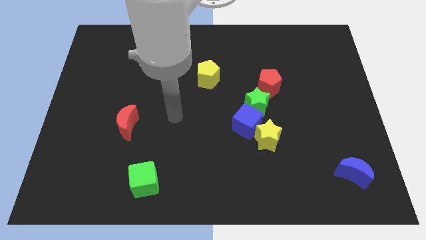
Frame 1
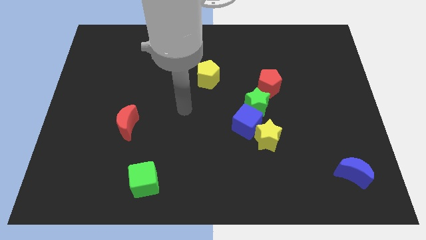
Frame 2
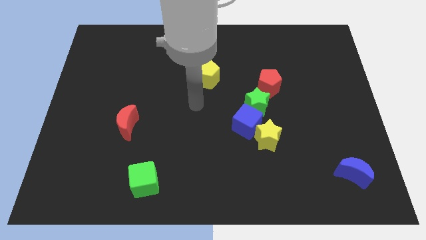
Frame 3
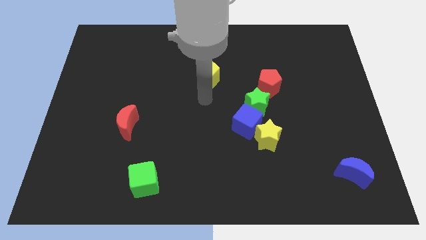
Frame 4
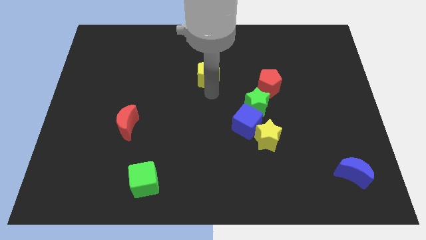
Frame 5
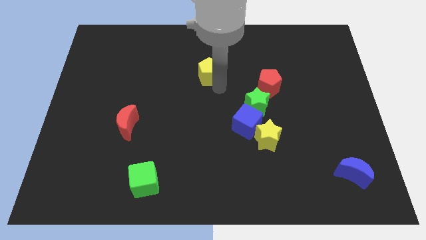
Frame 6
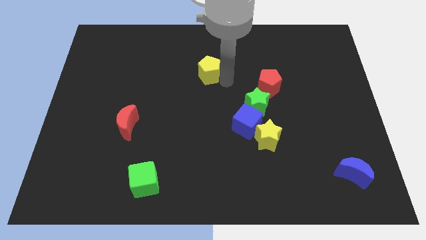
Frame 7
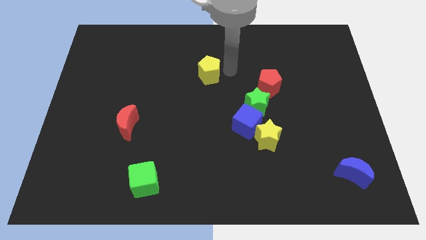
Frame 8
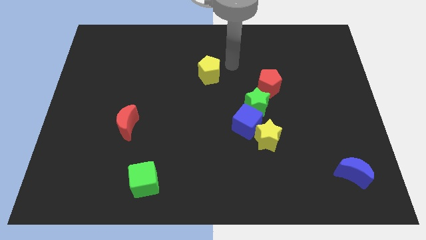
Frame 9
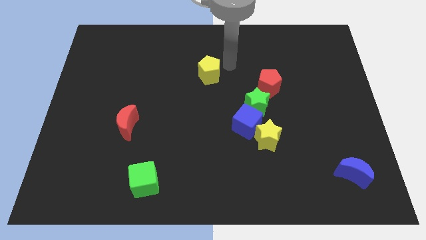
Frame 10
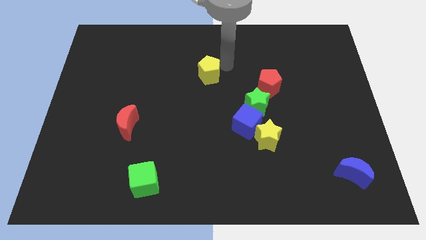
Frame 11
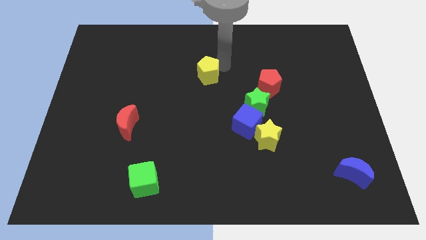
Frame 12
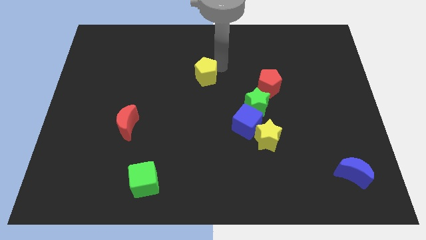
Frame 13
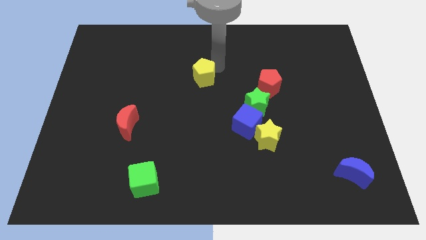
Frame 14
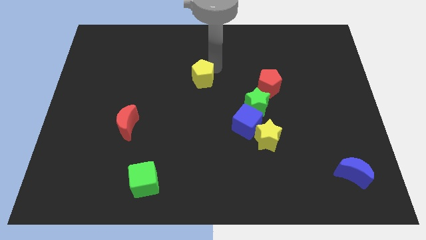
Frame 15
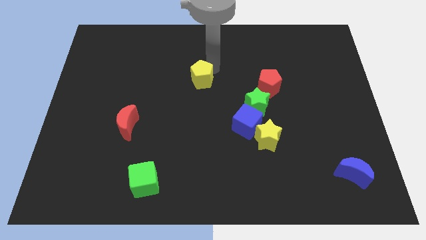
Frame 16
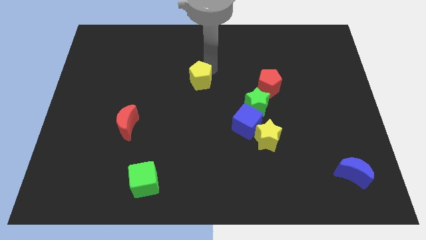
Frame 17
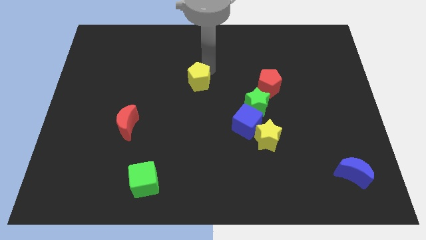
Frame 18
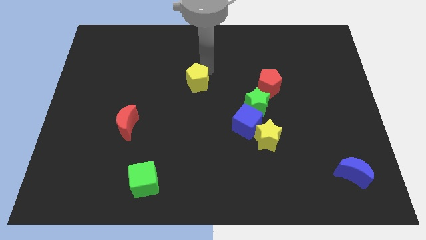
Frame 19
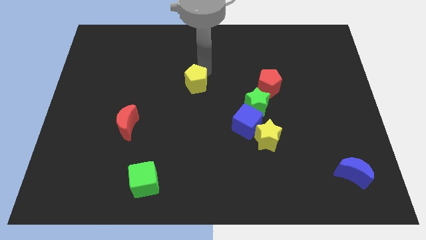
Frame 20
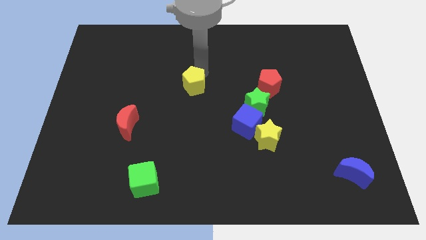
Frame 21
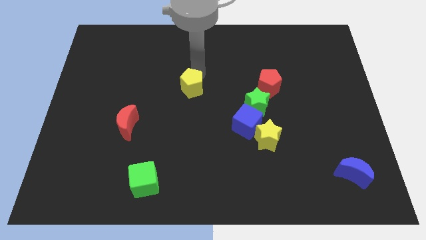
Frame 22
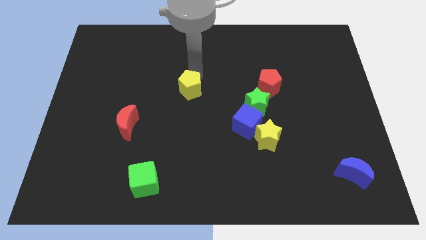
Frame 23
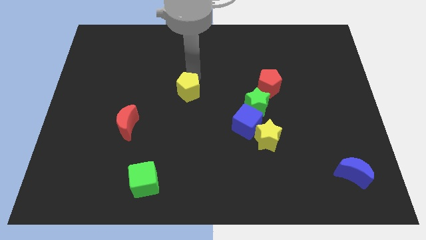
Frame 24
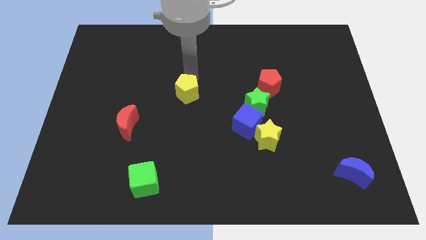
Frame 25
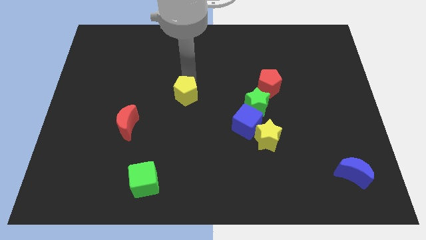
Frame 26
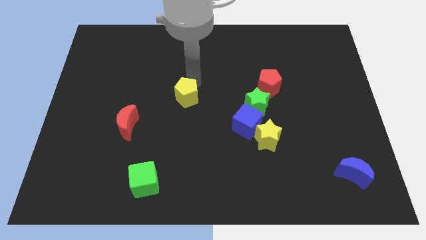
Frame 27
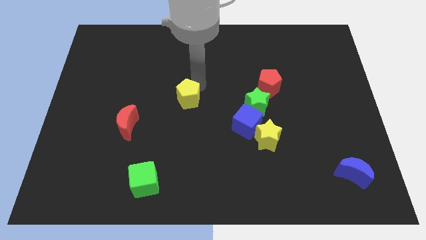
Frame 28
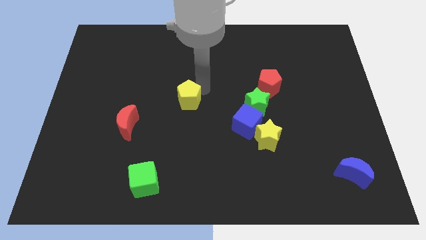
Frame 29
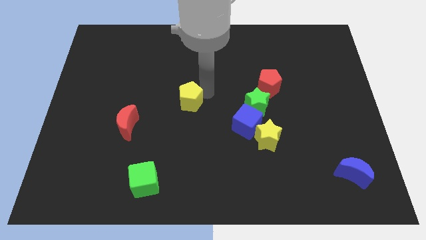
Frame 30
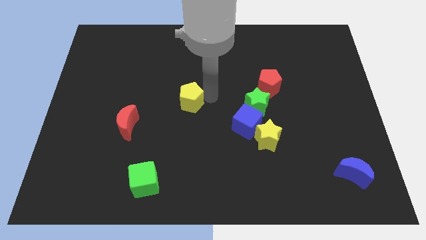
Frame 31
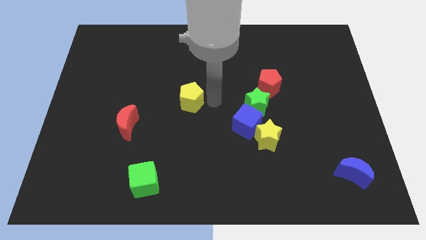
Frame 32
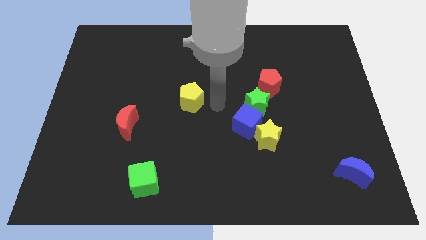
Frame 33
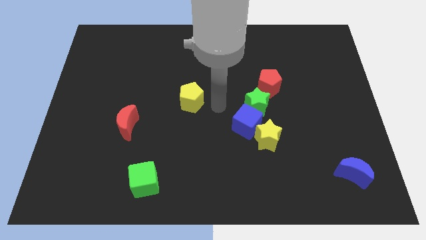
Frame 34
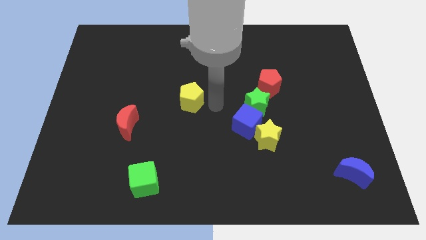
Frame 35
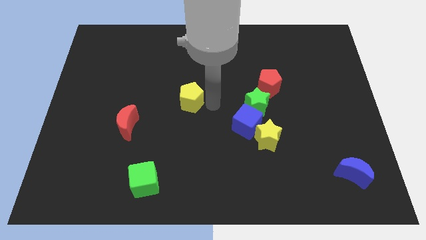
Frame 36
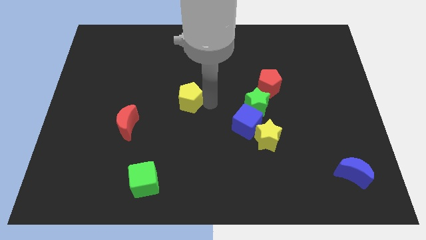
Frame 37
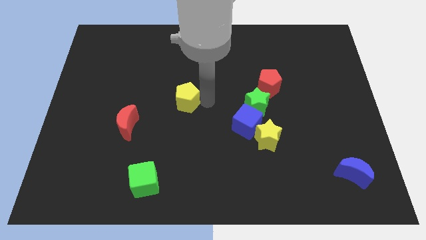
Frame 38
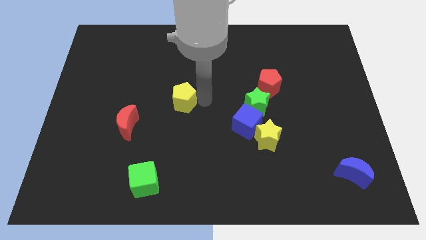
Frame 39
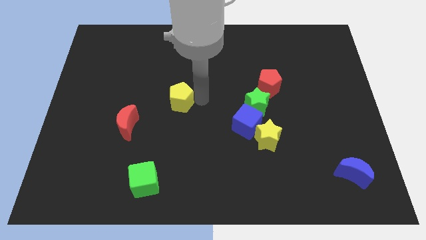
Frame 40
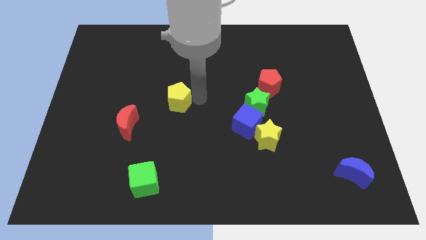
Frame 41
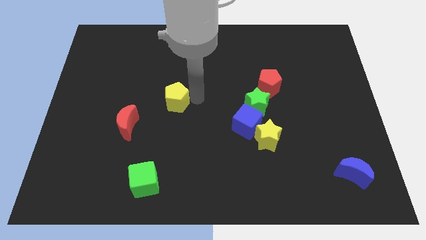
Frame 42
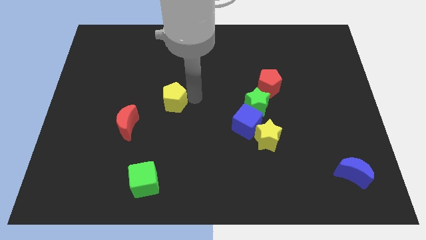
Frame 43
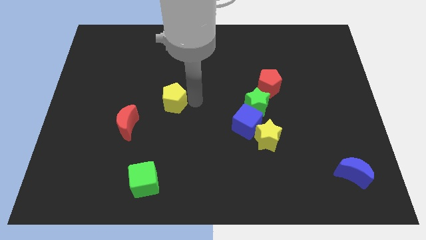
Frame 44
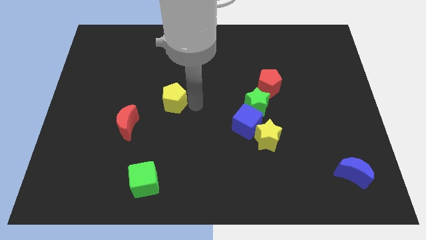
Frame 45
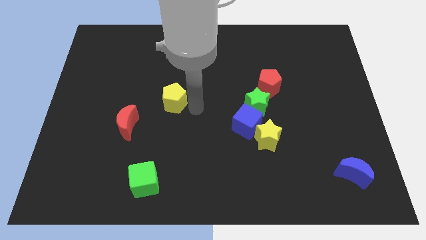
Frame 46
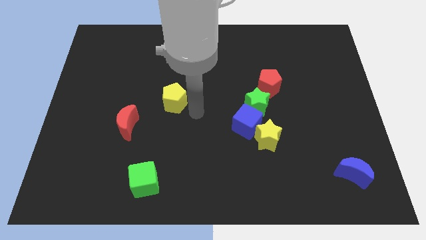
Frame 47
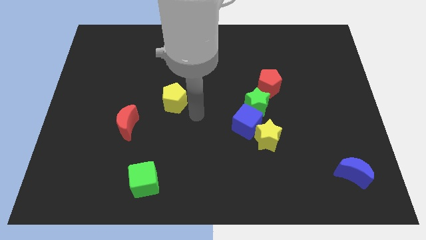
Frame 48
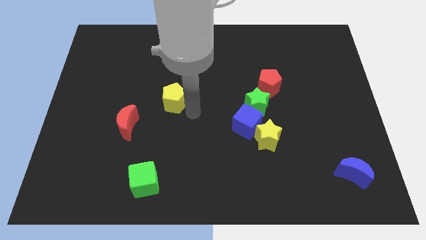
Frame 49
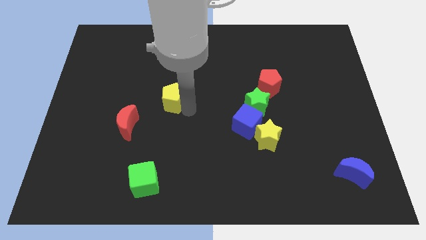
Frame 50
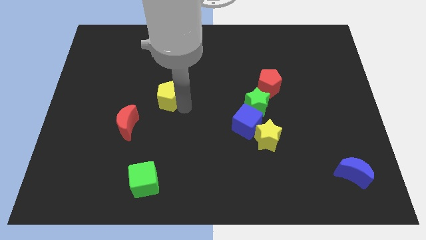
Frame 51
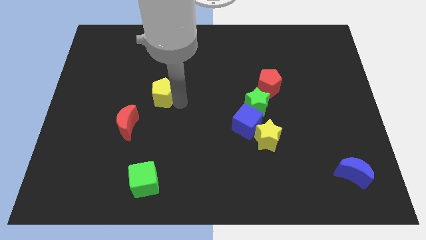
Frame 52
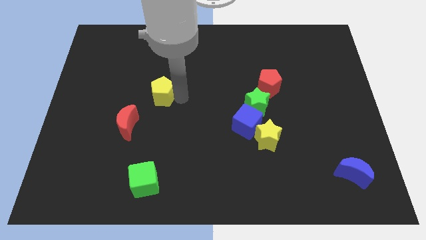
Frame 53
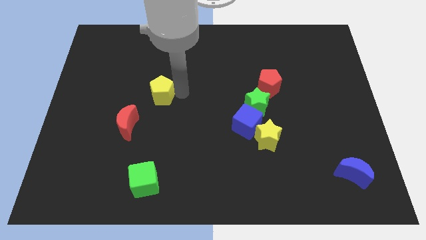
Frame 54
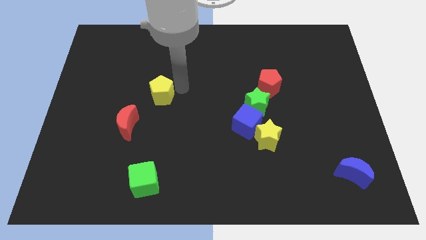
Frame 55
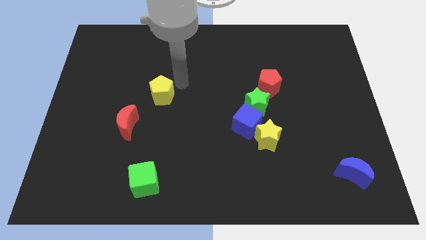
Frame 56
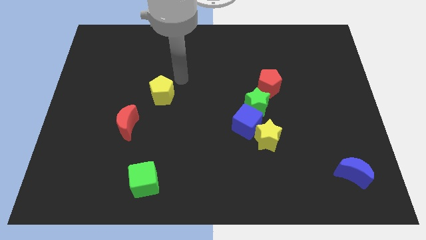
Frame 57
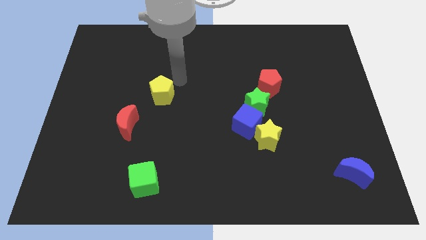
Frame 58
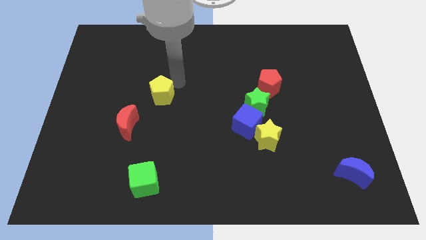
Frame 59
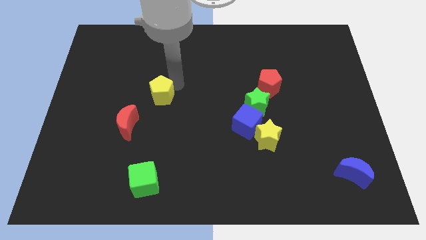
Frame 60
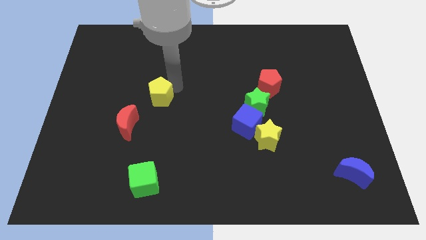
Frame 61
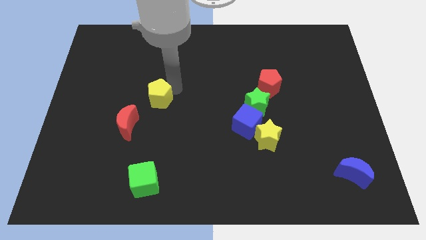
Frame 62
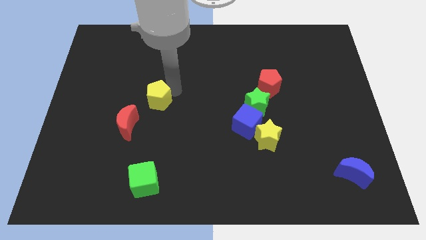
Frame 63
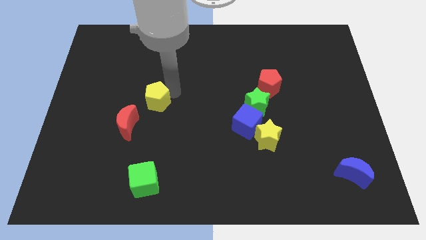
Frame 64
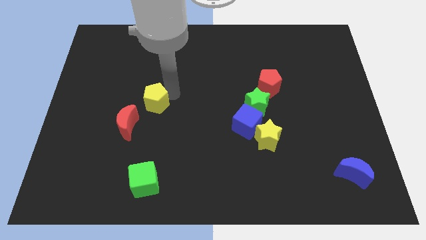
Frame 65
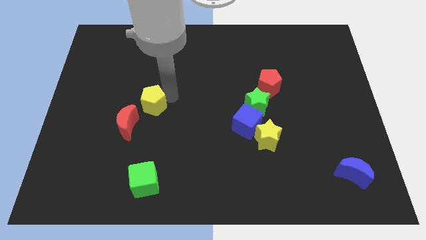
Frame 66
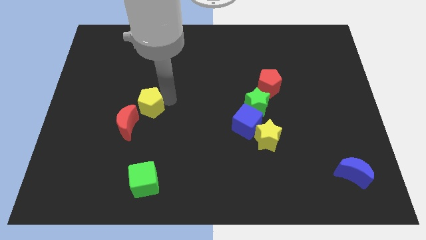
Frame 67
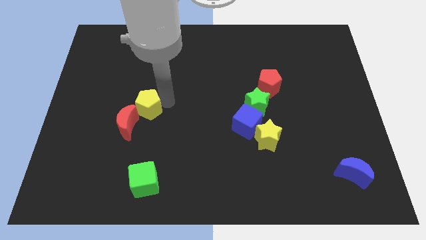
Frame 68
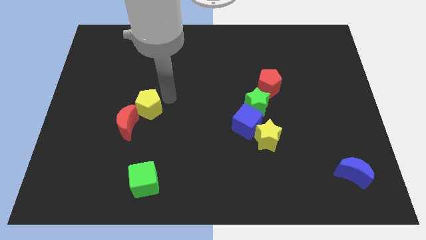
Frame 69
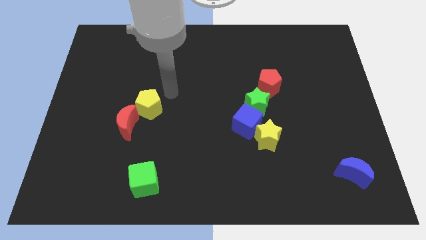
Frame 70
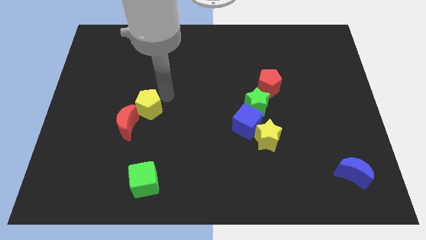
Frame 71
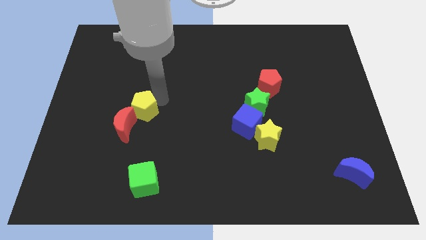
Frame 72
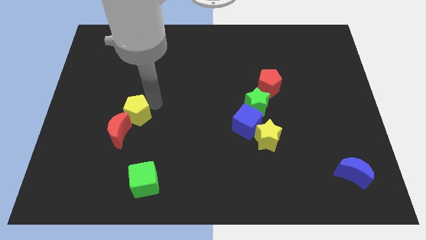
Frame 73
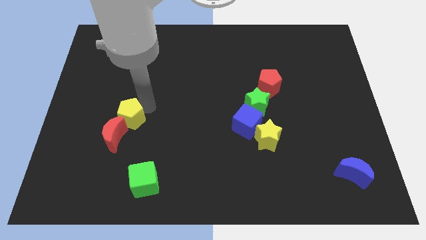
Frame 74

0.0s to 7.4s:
move the yellow pentagon to the red moon
